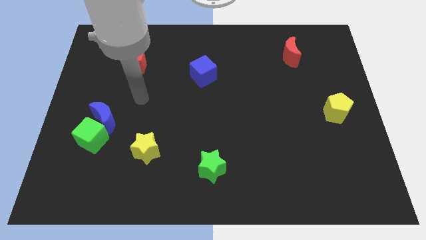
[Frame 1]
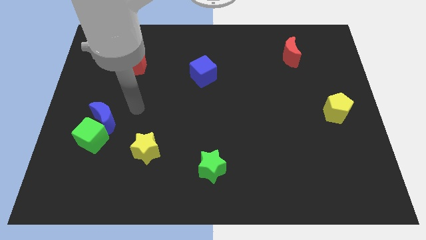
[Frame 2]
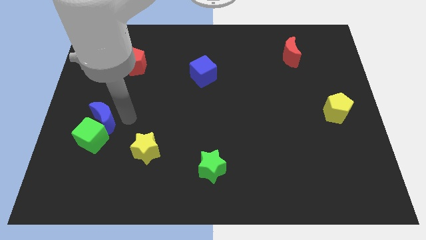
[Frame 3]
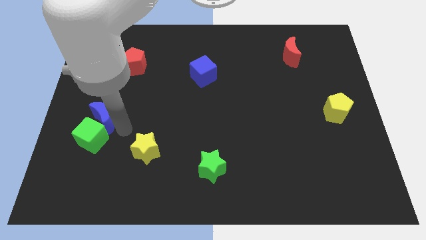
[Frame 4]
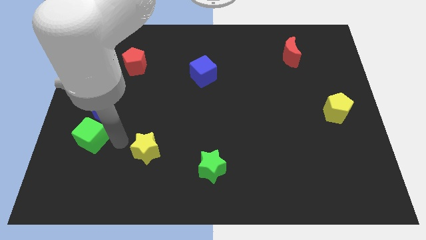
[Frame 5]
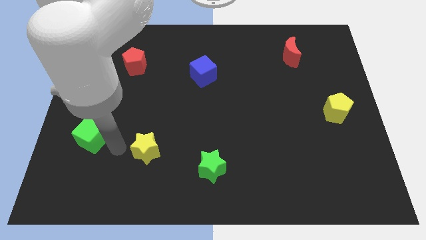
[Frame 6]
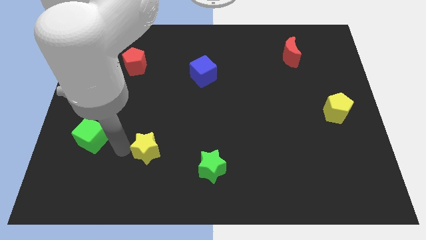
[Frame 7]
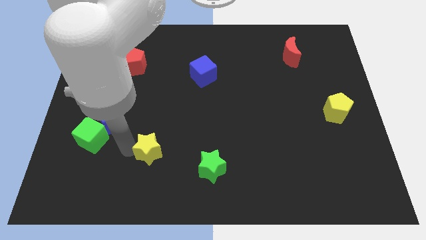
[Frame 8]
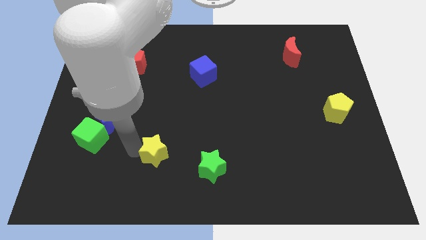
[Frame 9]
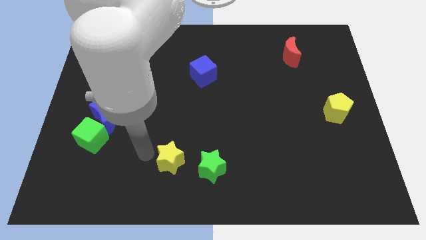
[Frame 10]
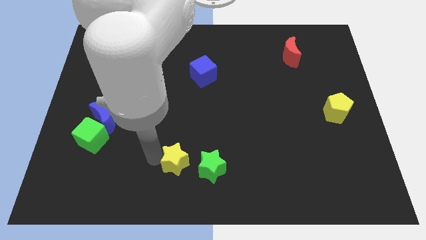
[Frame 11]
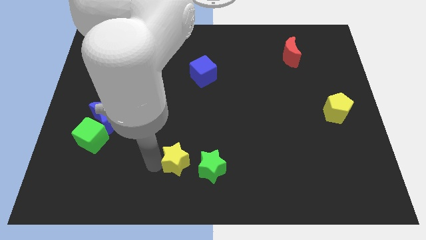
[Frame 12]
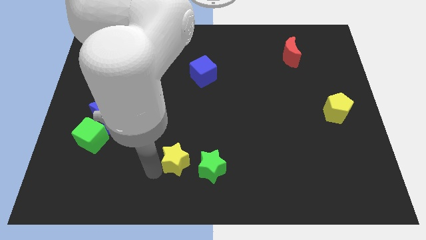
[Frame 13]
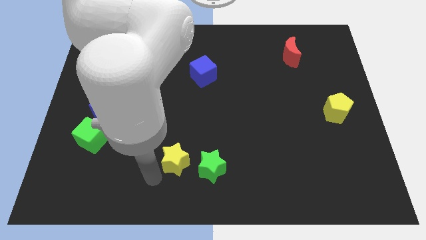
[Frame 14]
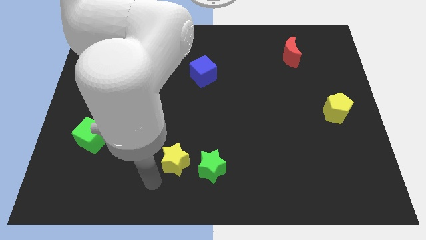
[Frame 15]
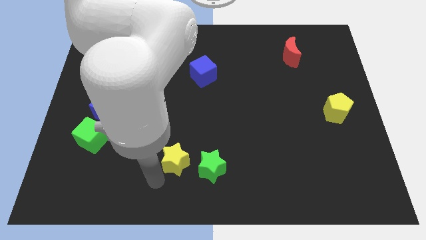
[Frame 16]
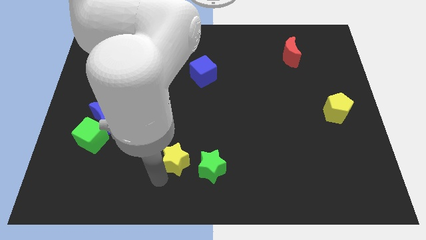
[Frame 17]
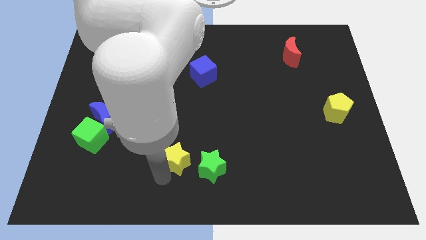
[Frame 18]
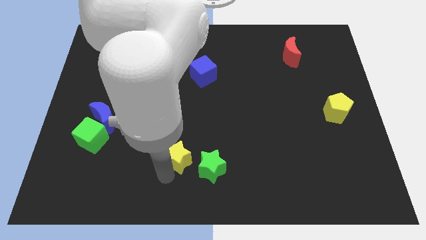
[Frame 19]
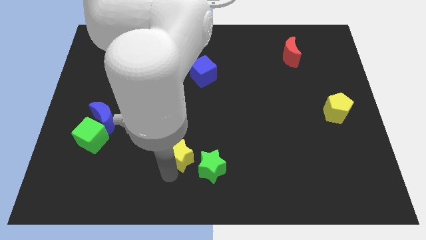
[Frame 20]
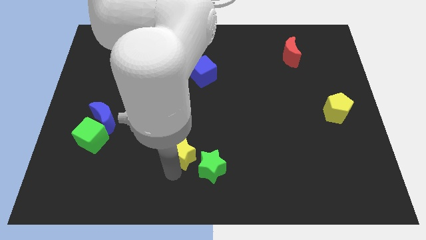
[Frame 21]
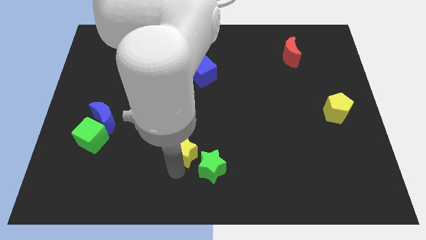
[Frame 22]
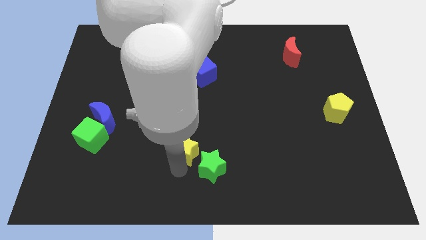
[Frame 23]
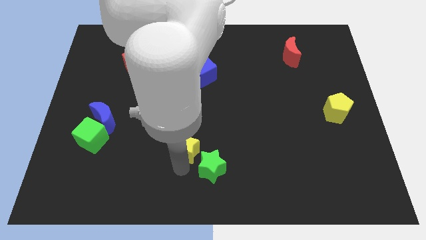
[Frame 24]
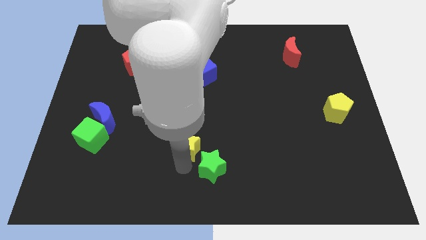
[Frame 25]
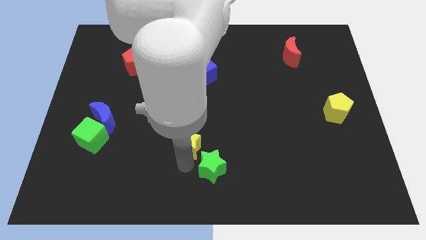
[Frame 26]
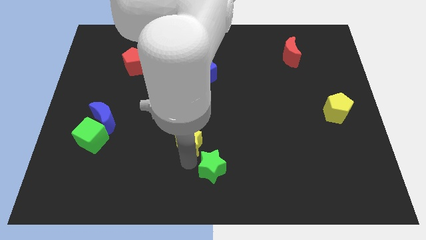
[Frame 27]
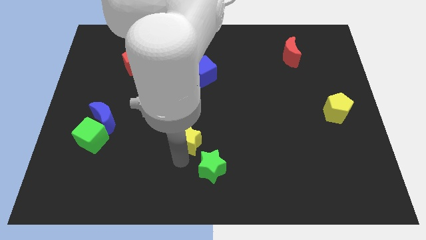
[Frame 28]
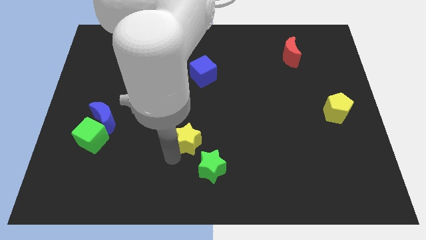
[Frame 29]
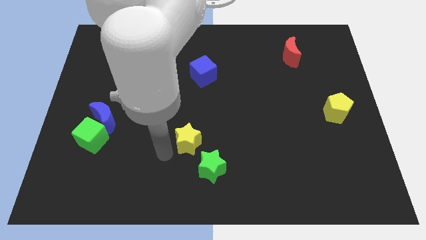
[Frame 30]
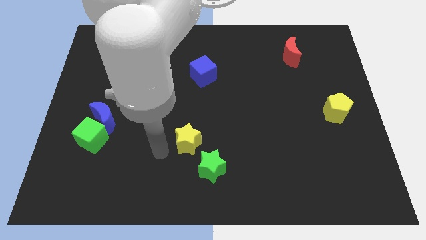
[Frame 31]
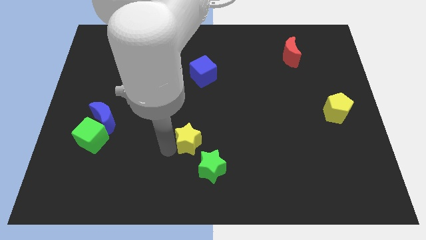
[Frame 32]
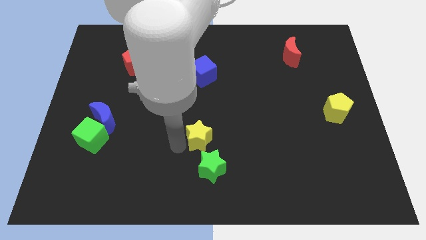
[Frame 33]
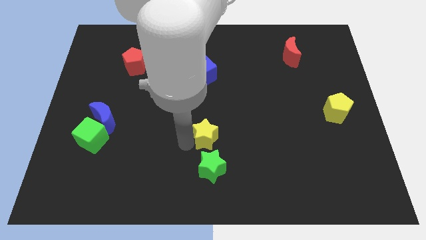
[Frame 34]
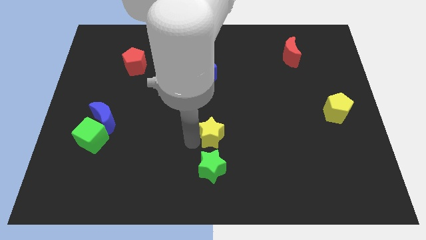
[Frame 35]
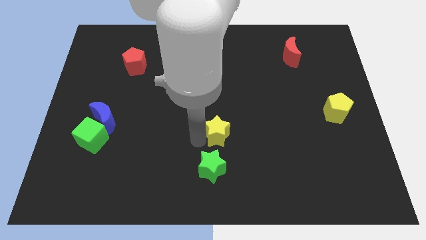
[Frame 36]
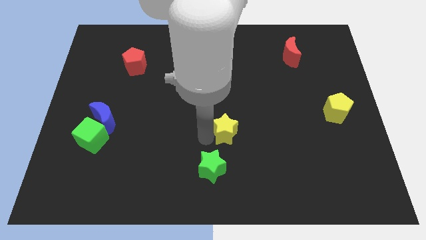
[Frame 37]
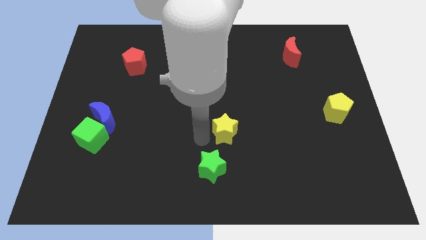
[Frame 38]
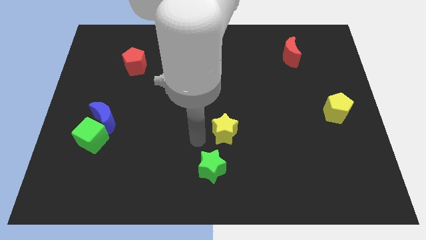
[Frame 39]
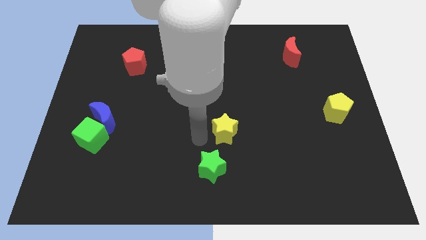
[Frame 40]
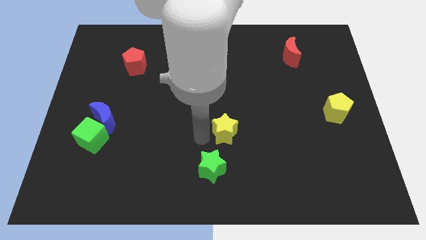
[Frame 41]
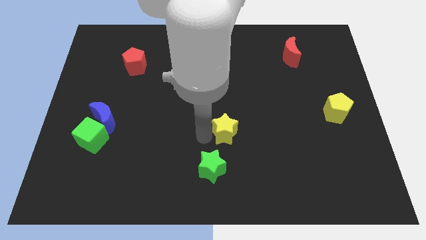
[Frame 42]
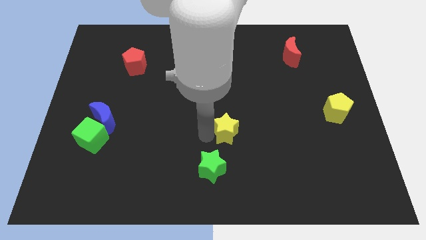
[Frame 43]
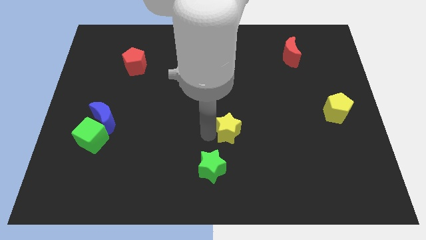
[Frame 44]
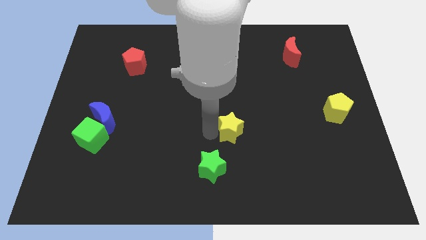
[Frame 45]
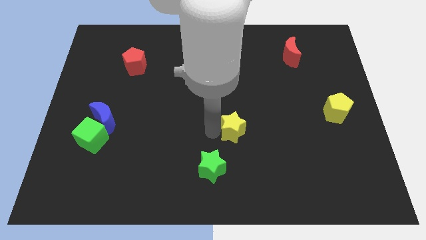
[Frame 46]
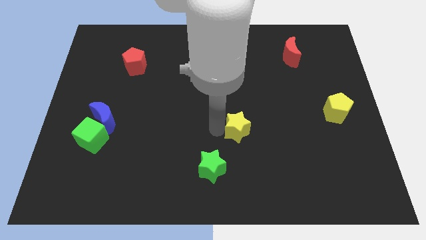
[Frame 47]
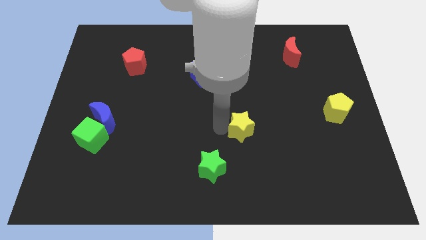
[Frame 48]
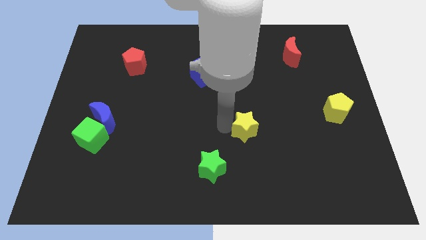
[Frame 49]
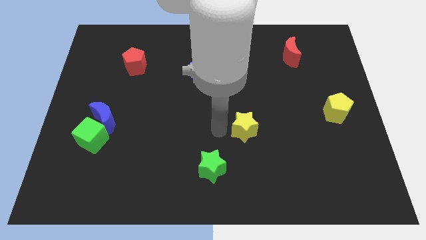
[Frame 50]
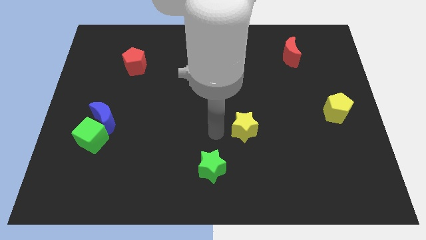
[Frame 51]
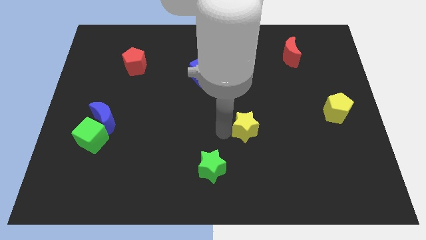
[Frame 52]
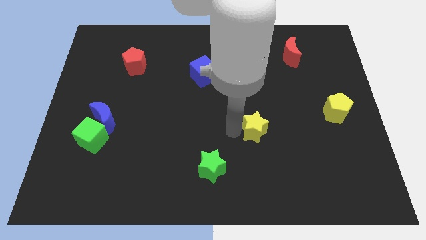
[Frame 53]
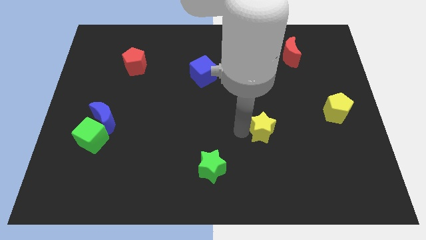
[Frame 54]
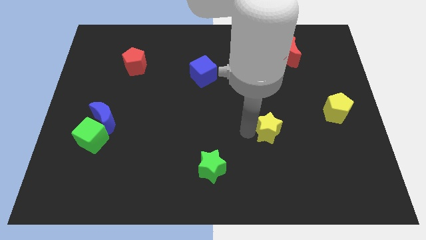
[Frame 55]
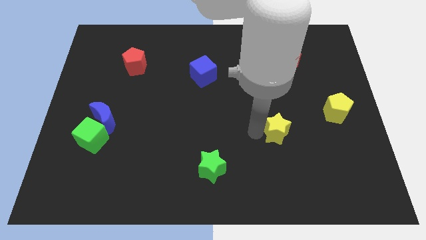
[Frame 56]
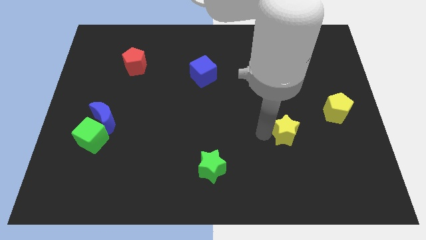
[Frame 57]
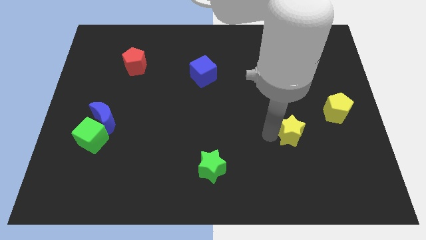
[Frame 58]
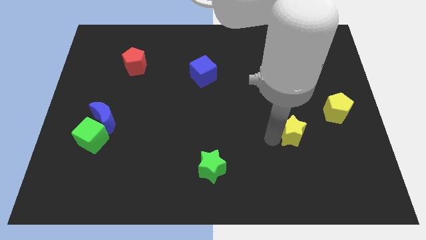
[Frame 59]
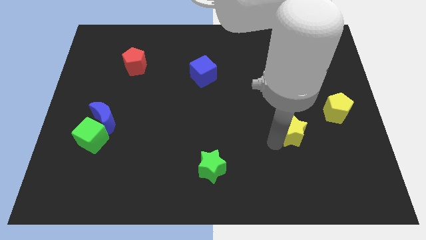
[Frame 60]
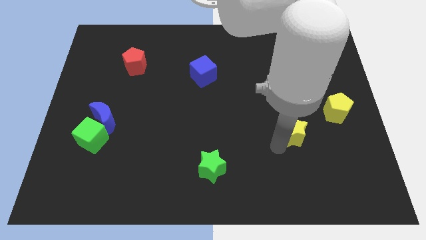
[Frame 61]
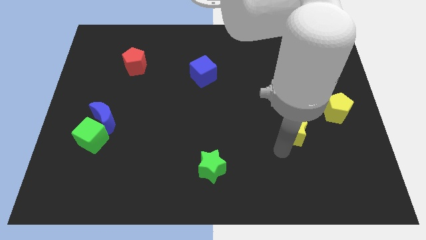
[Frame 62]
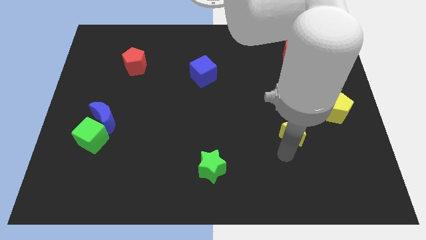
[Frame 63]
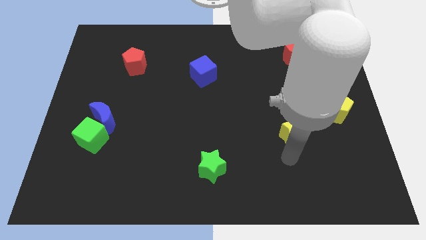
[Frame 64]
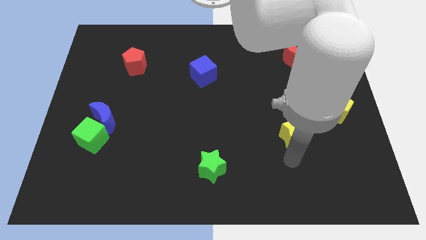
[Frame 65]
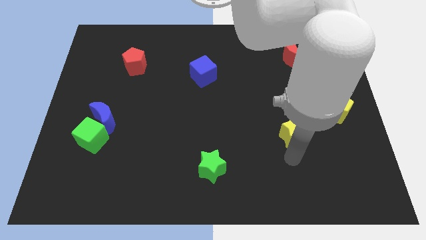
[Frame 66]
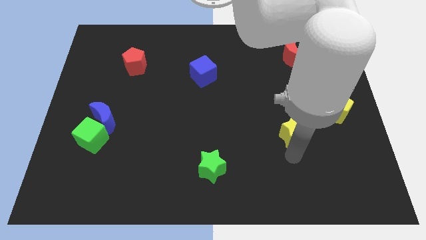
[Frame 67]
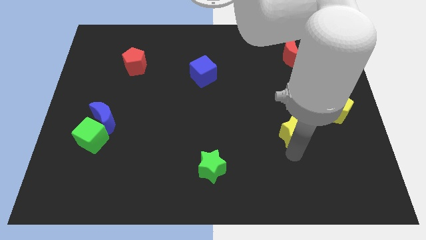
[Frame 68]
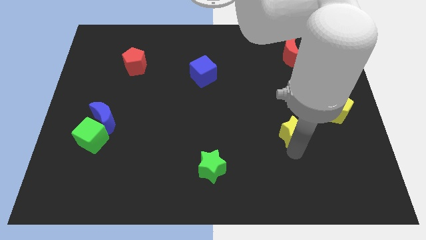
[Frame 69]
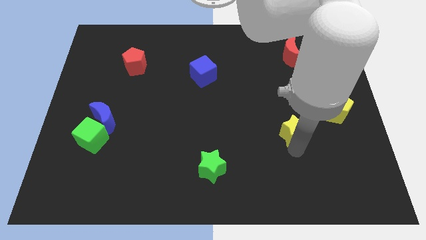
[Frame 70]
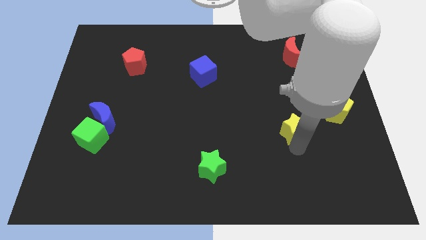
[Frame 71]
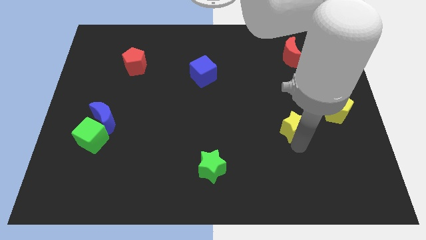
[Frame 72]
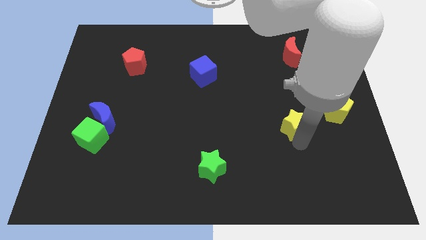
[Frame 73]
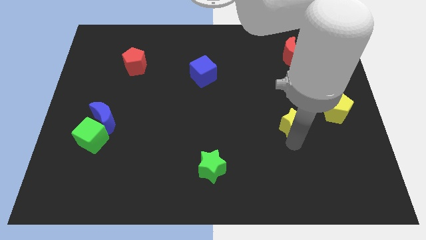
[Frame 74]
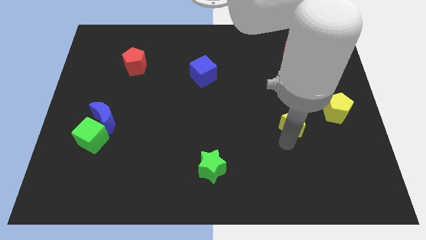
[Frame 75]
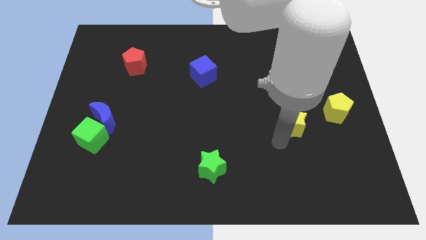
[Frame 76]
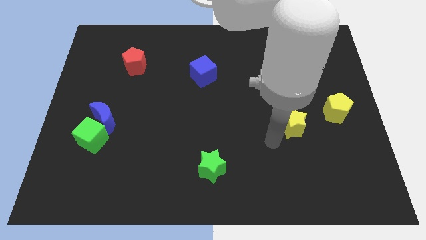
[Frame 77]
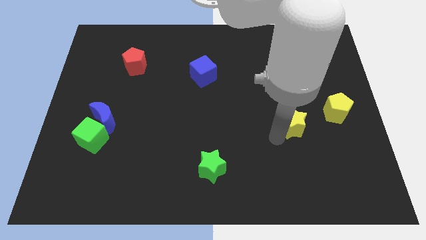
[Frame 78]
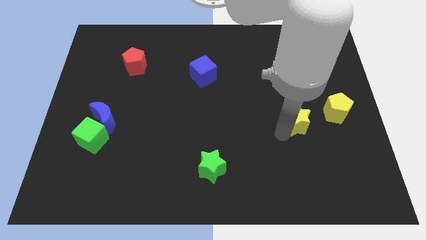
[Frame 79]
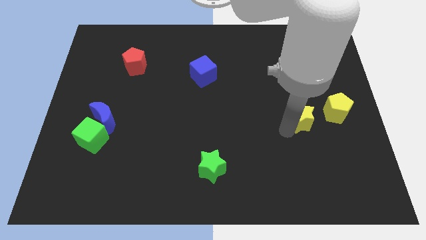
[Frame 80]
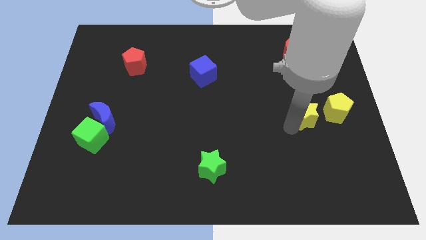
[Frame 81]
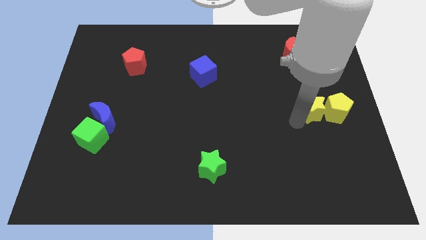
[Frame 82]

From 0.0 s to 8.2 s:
slide the yellow star next to the yellow pentagon
